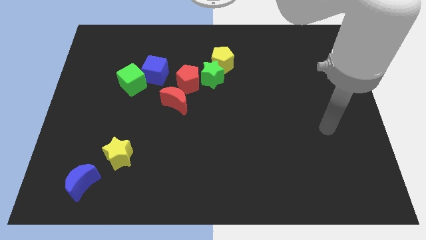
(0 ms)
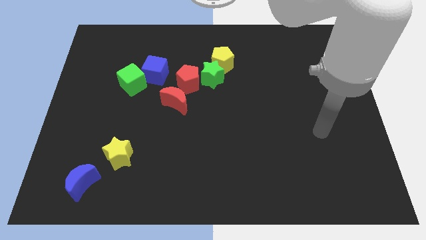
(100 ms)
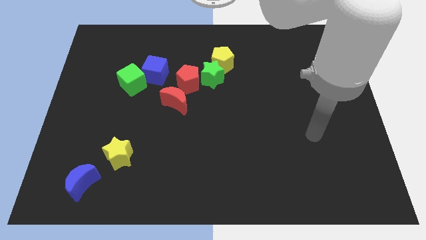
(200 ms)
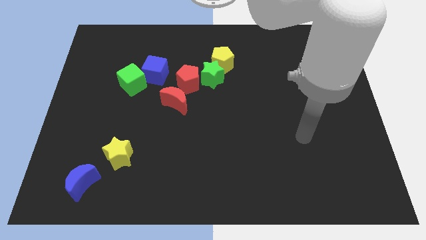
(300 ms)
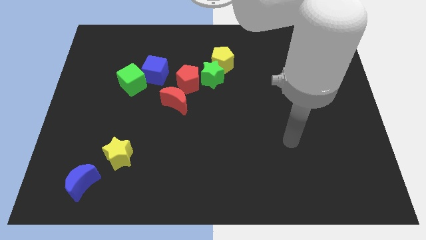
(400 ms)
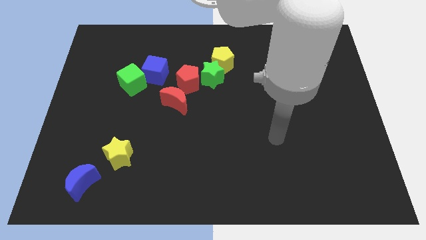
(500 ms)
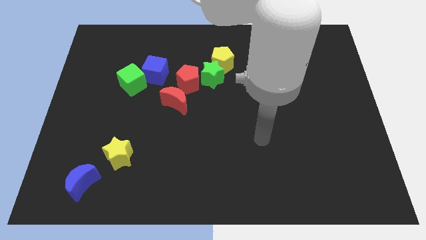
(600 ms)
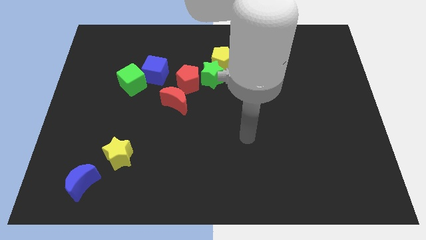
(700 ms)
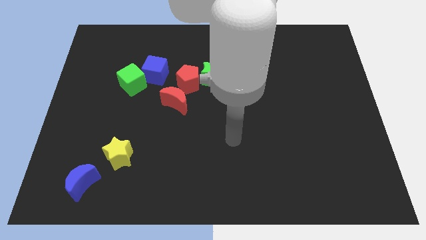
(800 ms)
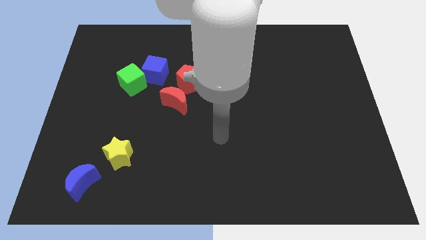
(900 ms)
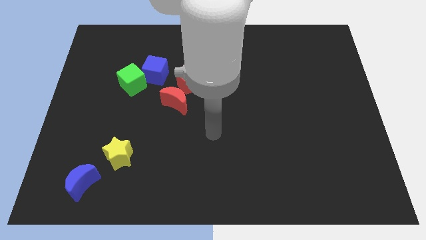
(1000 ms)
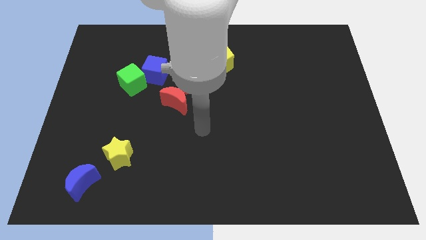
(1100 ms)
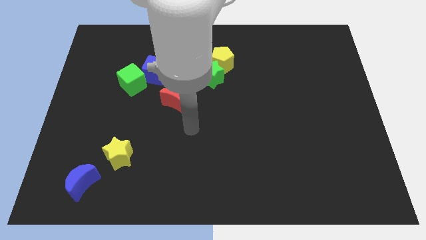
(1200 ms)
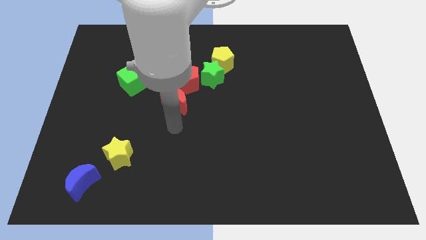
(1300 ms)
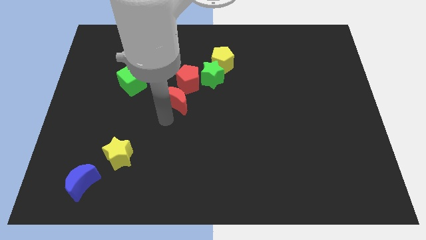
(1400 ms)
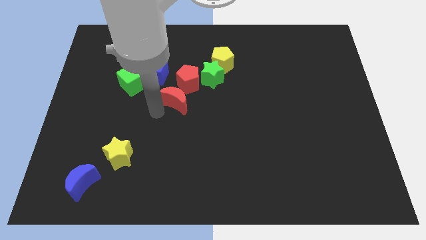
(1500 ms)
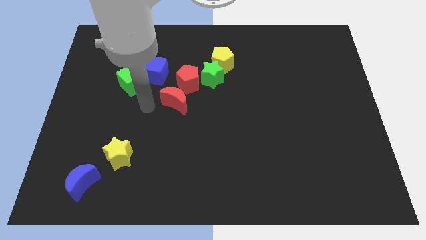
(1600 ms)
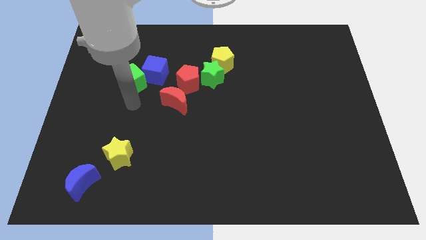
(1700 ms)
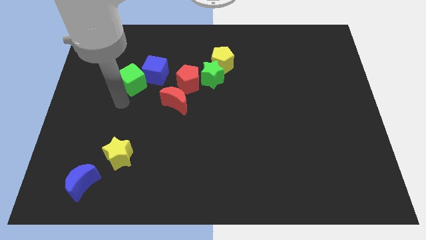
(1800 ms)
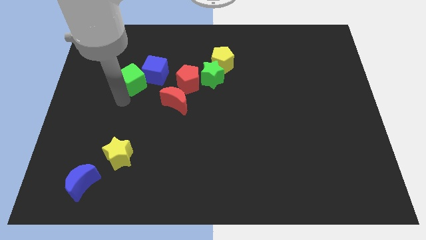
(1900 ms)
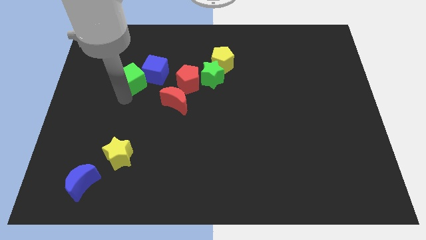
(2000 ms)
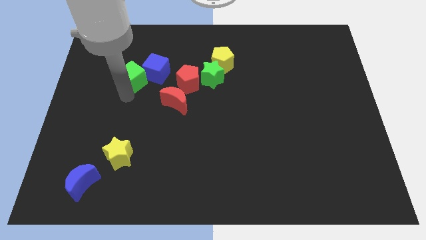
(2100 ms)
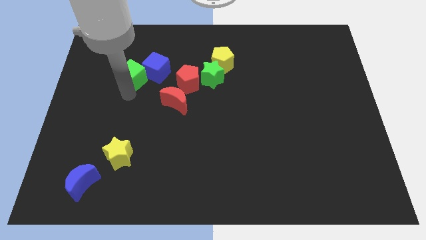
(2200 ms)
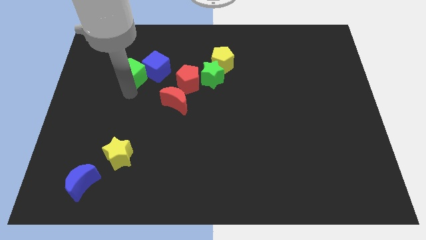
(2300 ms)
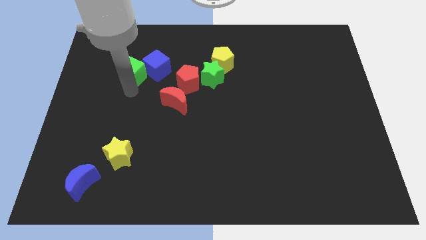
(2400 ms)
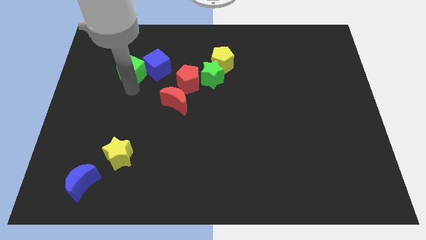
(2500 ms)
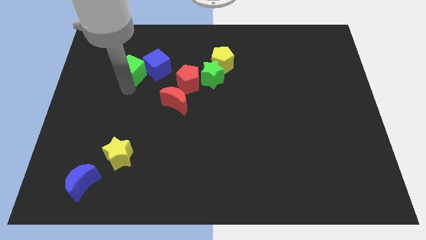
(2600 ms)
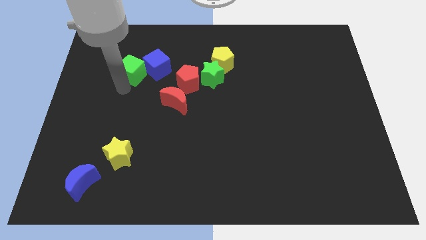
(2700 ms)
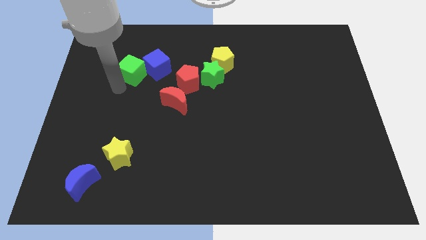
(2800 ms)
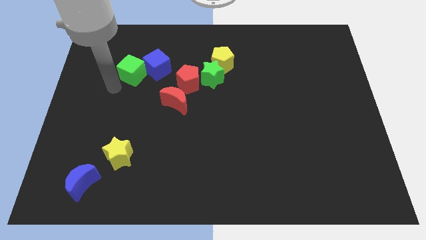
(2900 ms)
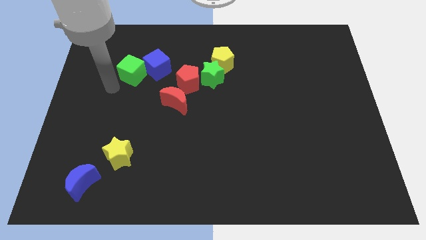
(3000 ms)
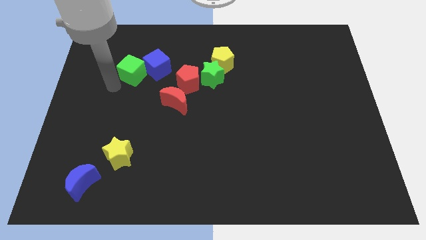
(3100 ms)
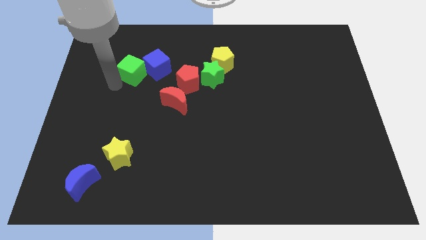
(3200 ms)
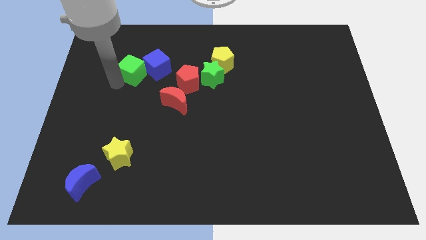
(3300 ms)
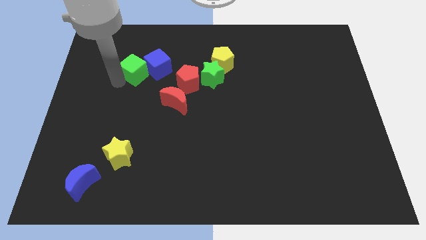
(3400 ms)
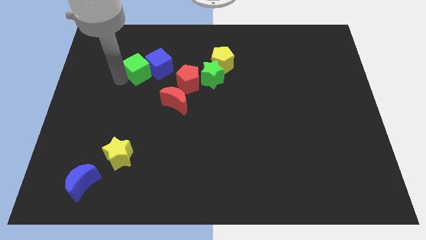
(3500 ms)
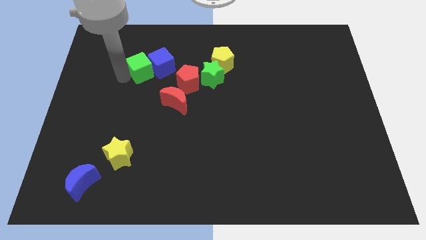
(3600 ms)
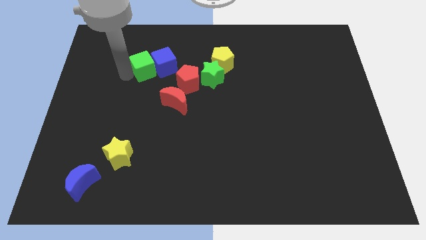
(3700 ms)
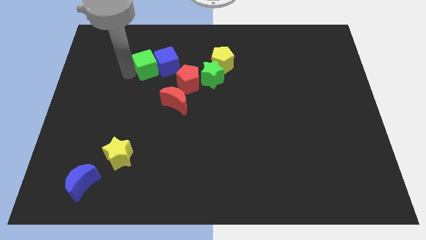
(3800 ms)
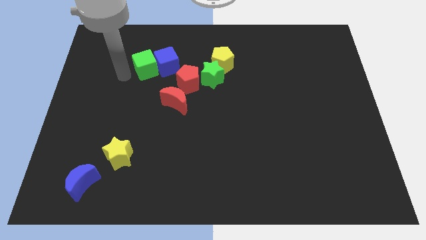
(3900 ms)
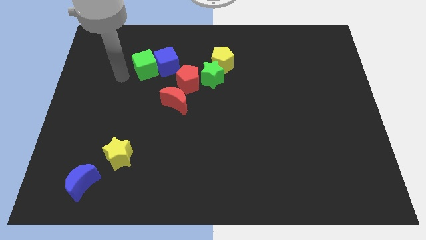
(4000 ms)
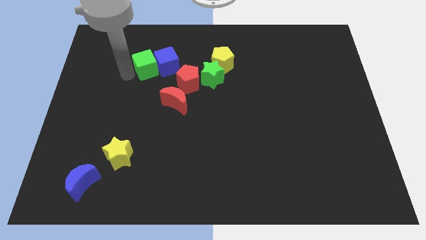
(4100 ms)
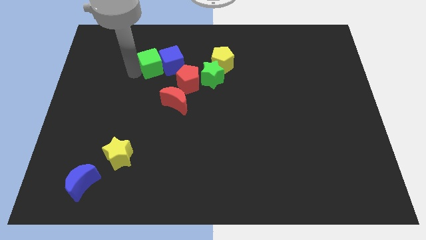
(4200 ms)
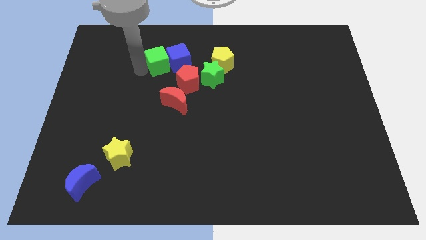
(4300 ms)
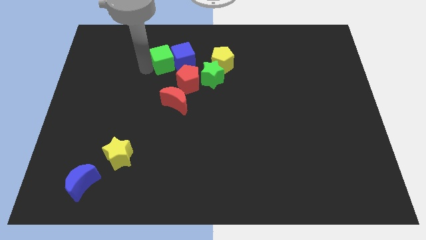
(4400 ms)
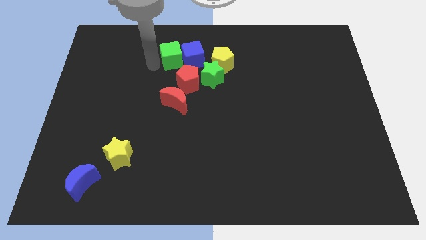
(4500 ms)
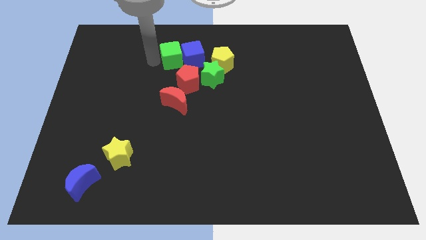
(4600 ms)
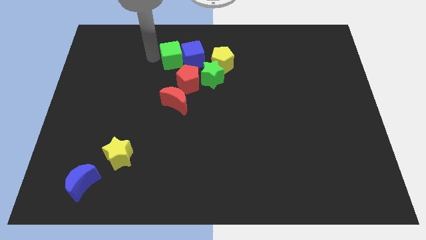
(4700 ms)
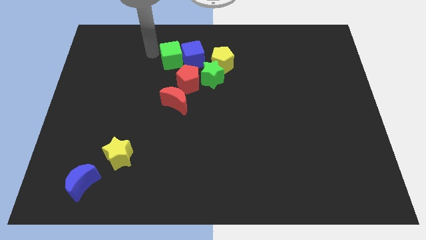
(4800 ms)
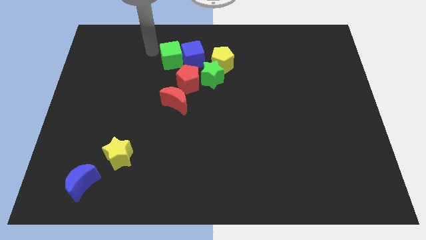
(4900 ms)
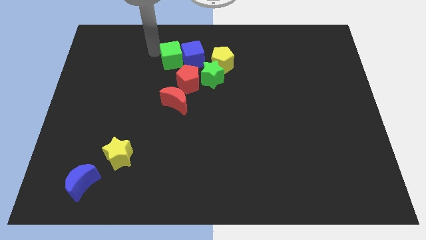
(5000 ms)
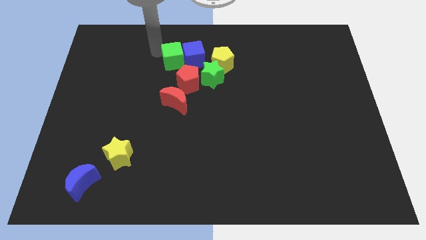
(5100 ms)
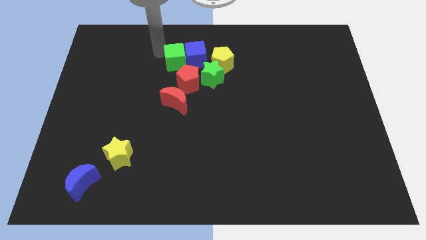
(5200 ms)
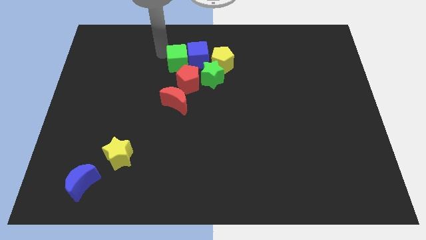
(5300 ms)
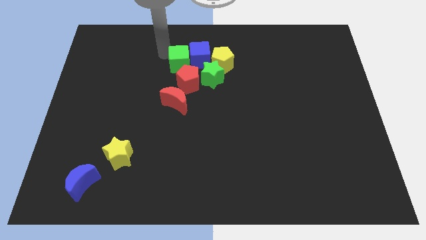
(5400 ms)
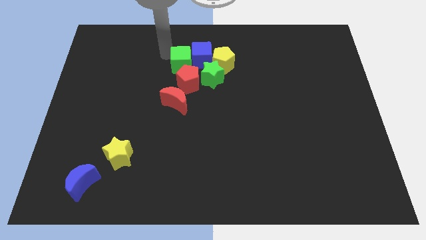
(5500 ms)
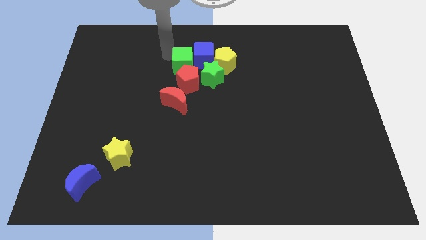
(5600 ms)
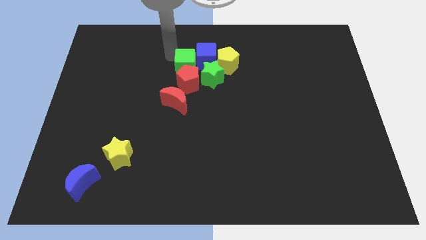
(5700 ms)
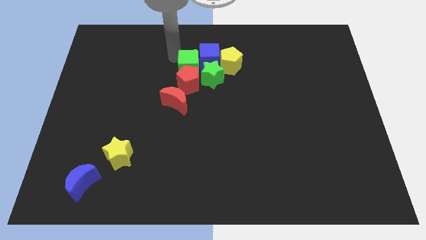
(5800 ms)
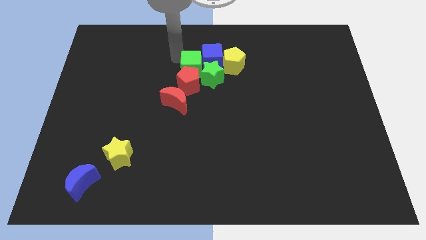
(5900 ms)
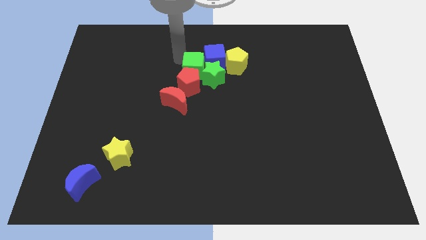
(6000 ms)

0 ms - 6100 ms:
slide the green cube towards the green star

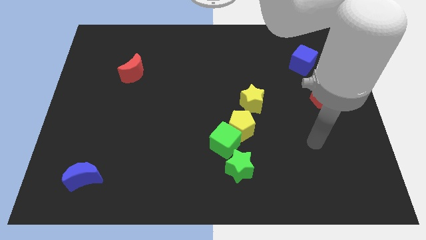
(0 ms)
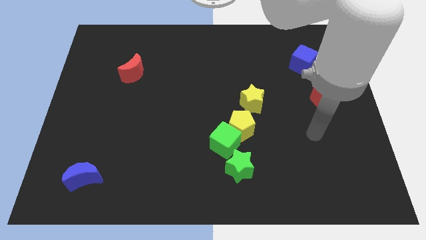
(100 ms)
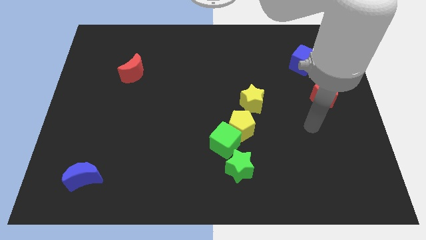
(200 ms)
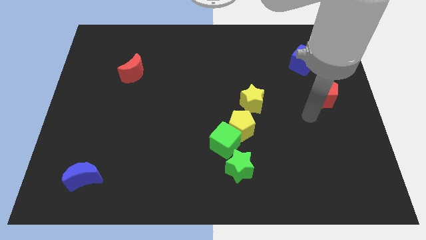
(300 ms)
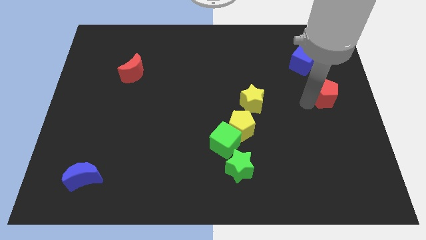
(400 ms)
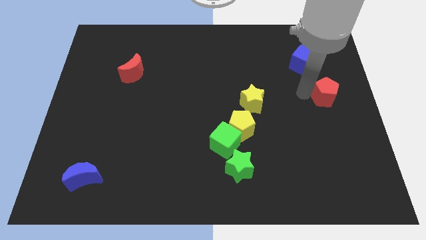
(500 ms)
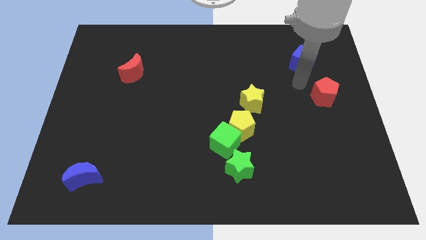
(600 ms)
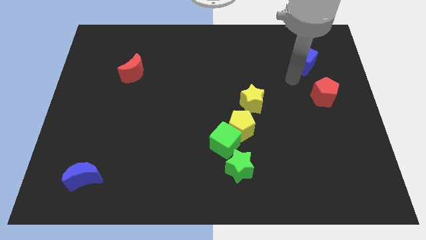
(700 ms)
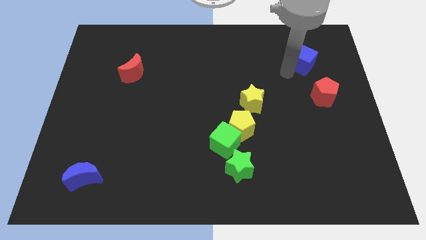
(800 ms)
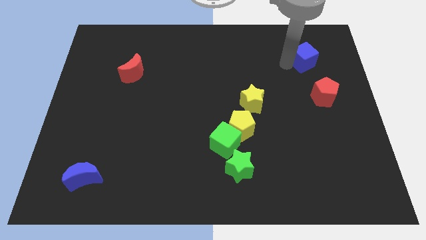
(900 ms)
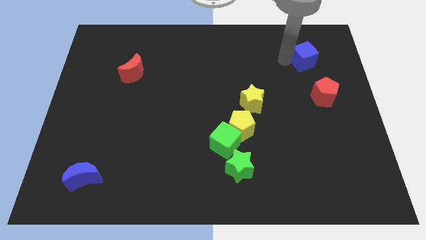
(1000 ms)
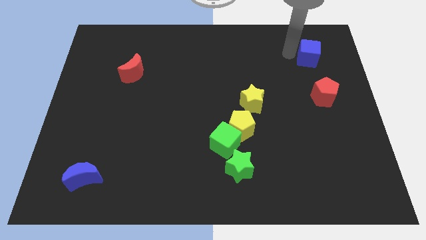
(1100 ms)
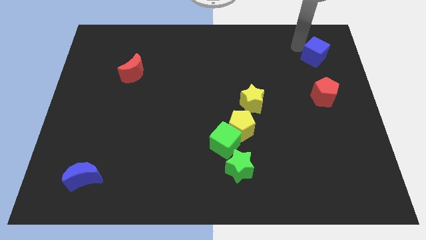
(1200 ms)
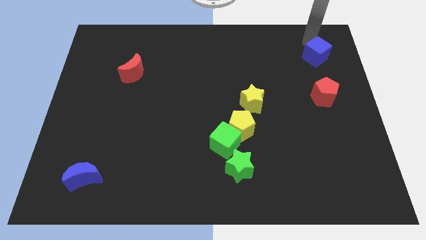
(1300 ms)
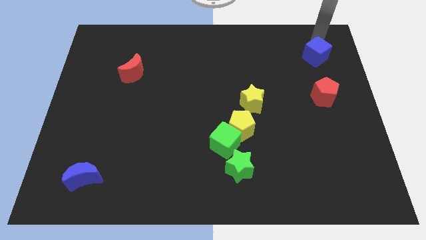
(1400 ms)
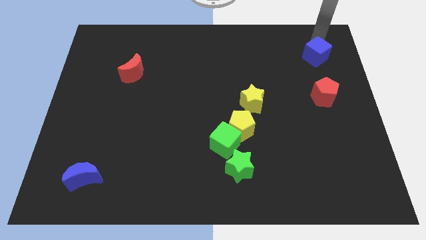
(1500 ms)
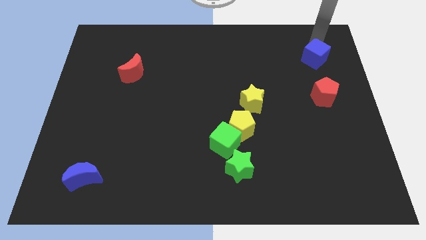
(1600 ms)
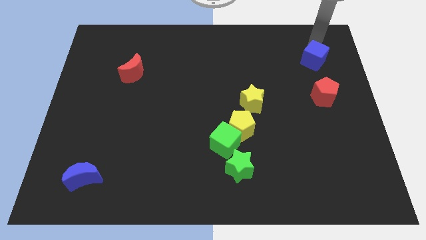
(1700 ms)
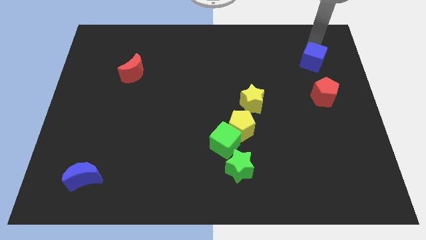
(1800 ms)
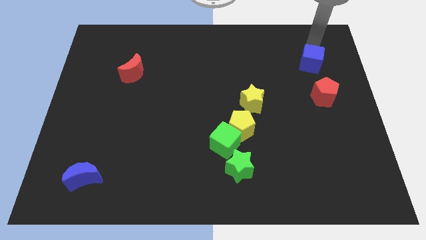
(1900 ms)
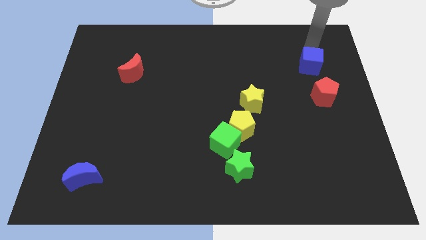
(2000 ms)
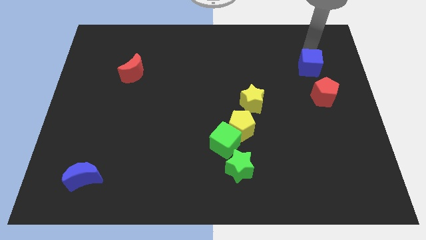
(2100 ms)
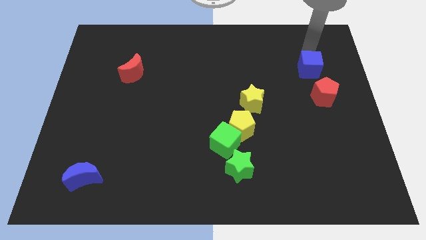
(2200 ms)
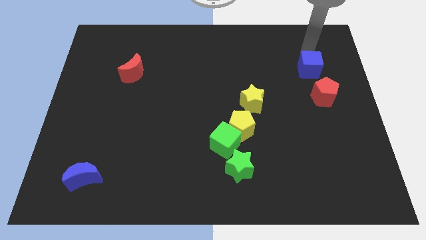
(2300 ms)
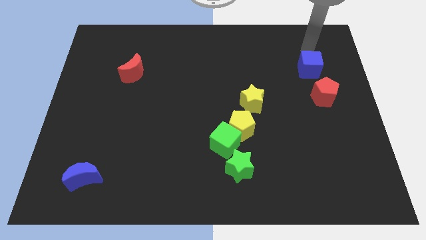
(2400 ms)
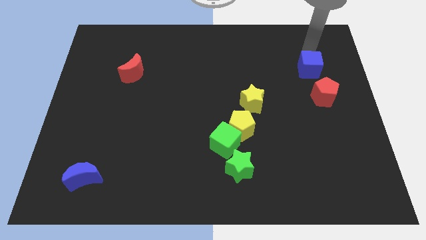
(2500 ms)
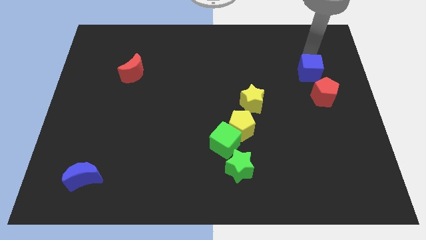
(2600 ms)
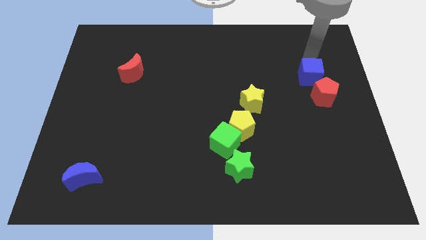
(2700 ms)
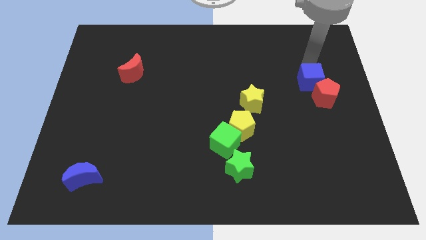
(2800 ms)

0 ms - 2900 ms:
move the blue cube to the red pentagon
